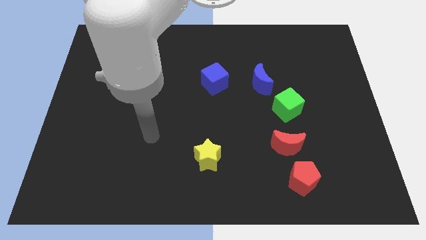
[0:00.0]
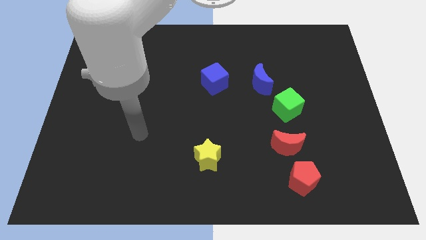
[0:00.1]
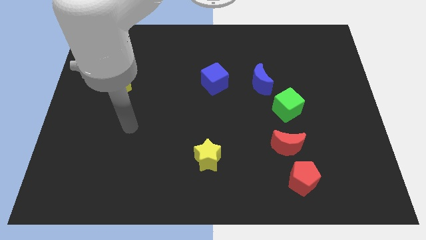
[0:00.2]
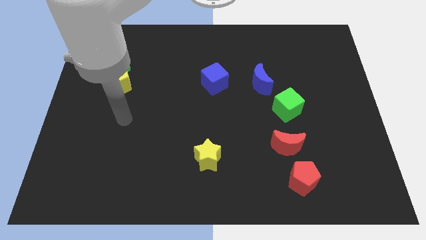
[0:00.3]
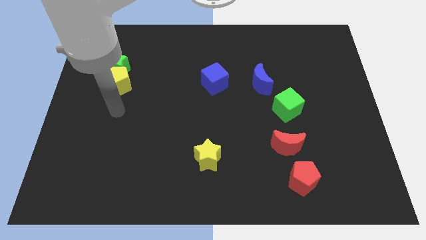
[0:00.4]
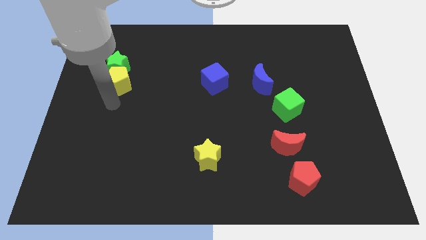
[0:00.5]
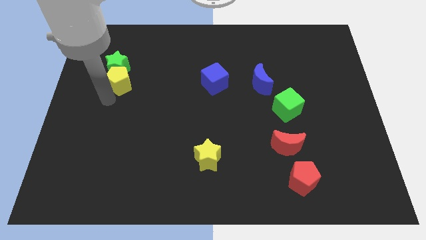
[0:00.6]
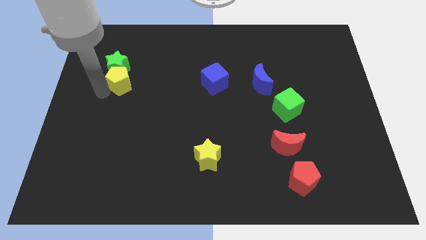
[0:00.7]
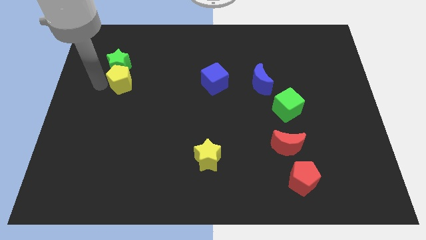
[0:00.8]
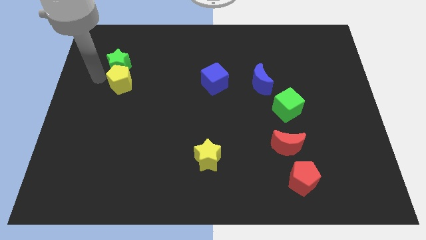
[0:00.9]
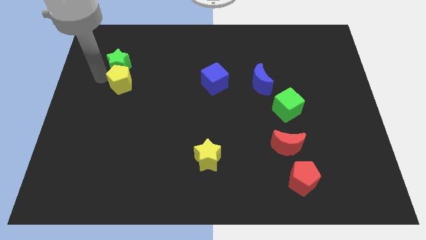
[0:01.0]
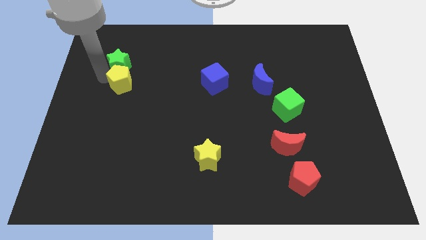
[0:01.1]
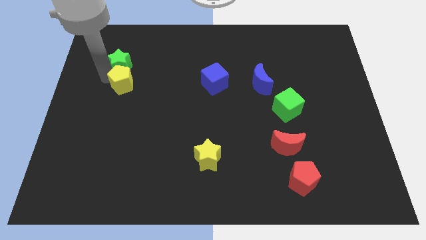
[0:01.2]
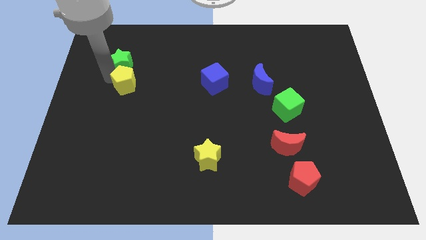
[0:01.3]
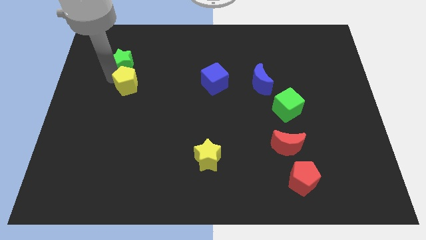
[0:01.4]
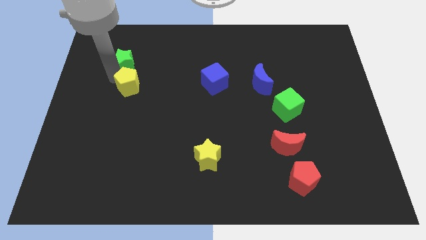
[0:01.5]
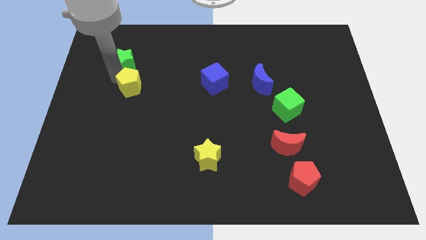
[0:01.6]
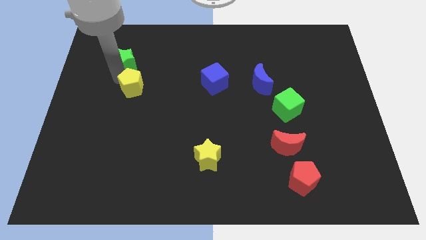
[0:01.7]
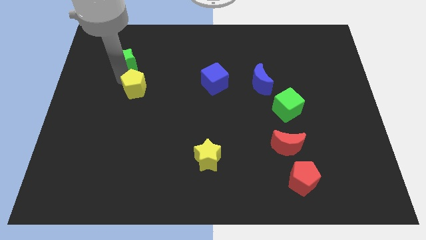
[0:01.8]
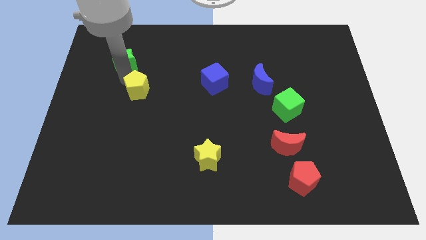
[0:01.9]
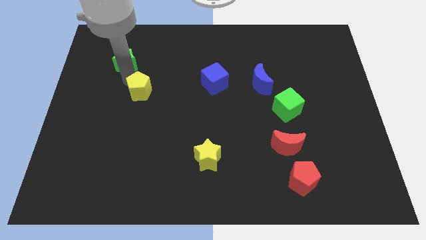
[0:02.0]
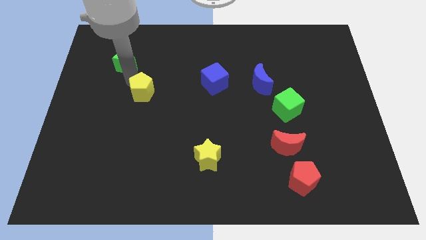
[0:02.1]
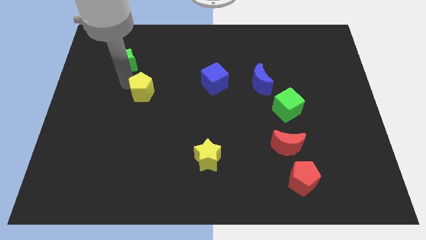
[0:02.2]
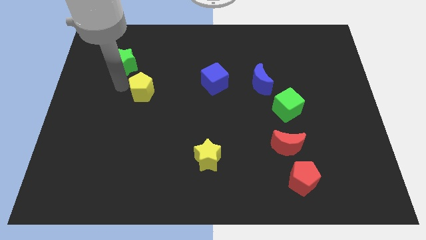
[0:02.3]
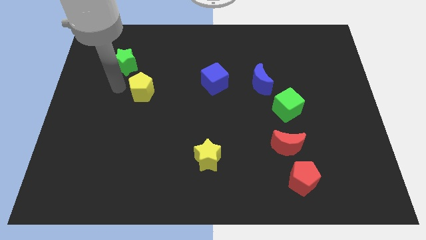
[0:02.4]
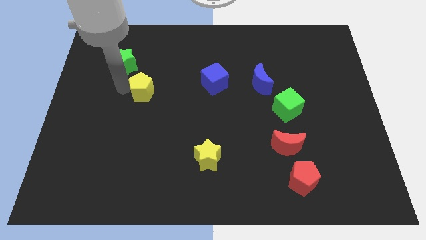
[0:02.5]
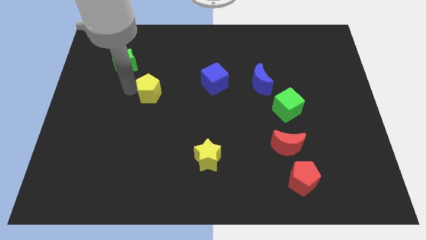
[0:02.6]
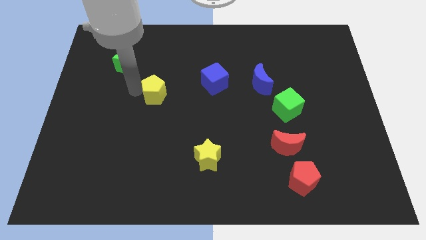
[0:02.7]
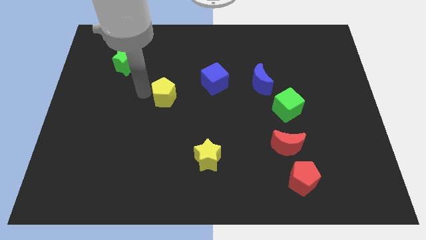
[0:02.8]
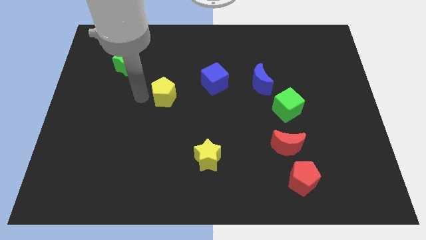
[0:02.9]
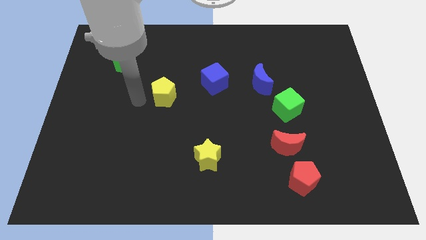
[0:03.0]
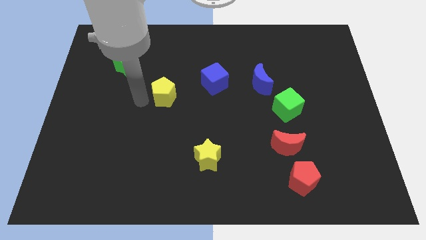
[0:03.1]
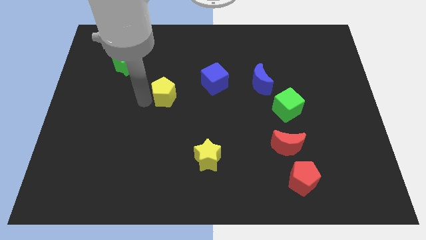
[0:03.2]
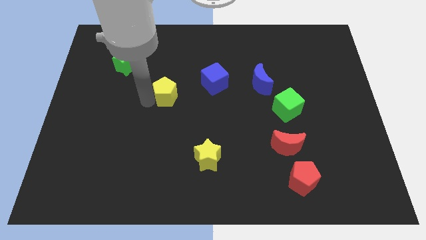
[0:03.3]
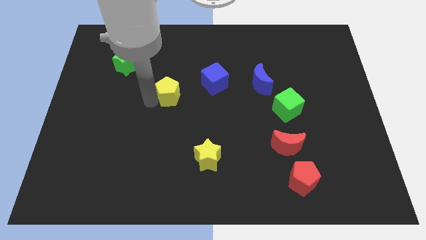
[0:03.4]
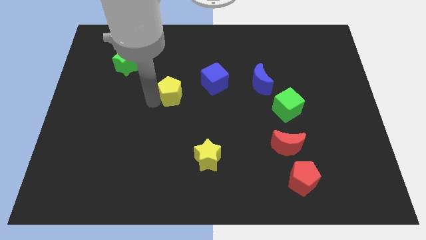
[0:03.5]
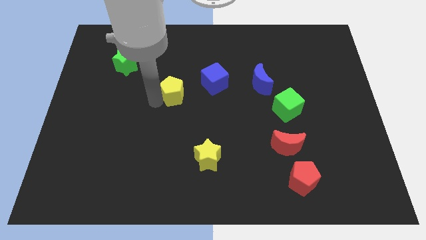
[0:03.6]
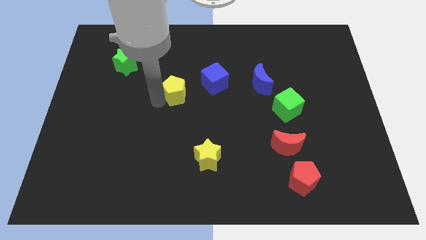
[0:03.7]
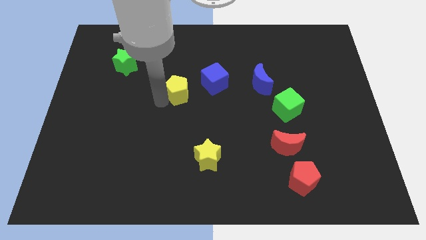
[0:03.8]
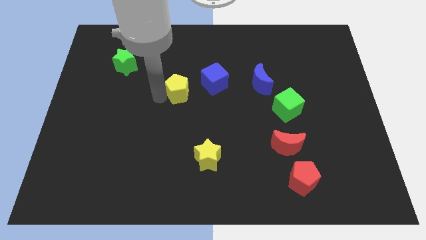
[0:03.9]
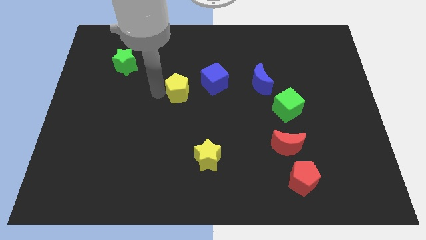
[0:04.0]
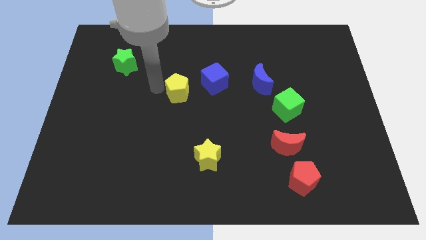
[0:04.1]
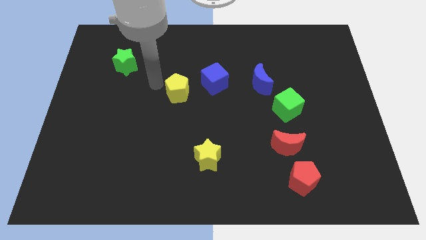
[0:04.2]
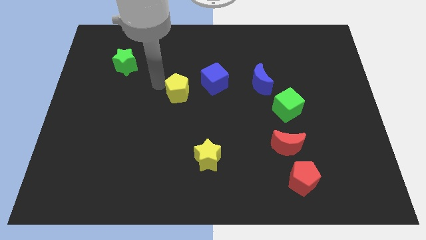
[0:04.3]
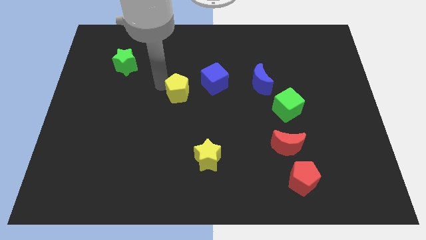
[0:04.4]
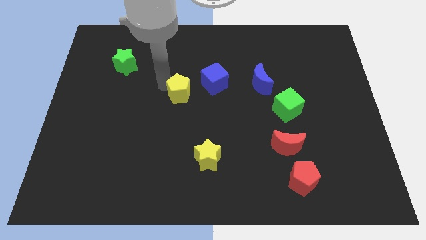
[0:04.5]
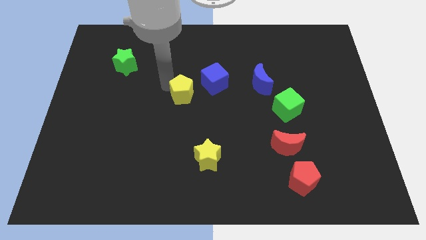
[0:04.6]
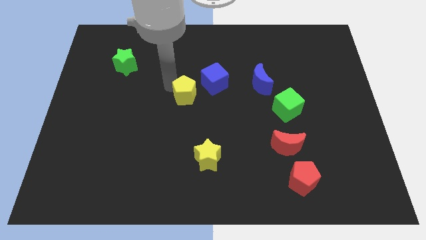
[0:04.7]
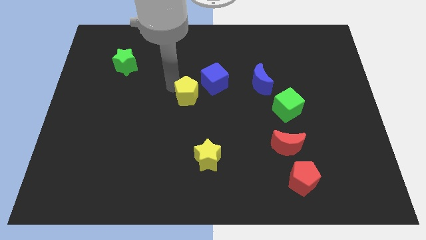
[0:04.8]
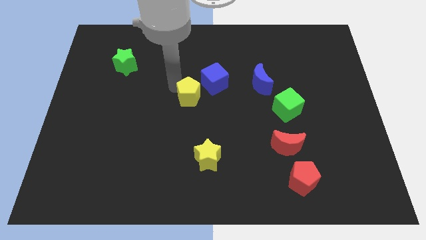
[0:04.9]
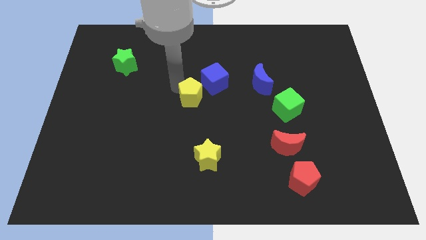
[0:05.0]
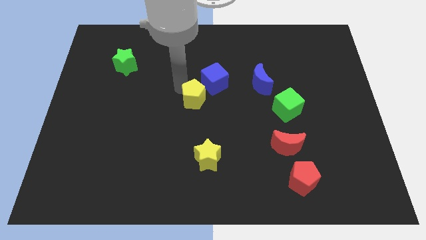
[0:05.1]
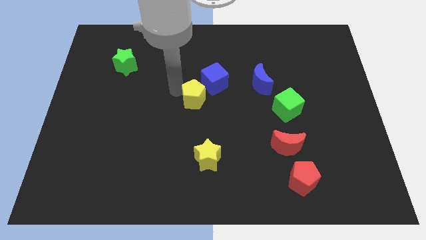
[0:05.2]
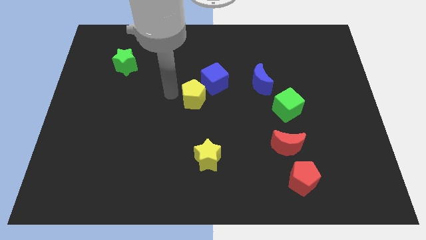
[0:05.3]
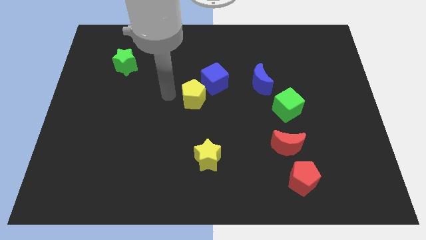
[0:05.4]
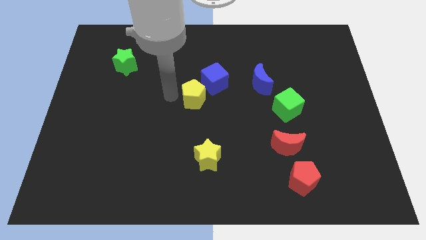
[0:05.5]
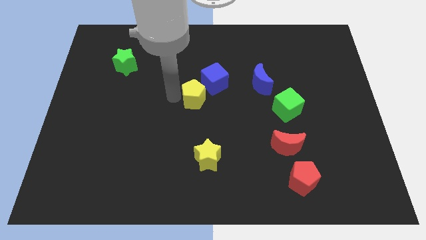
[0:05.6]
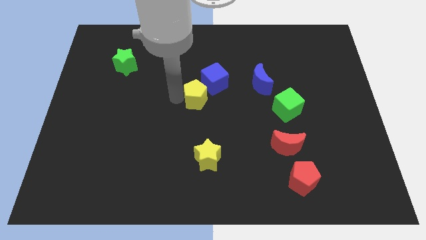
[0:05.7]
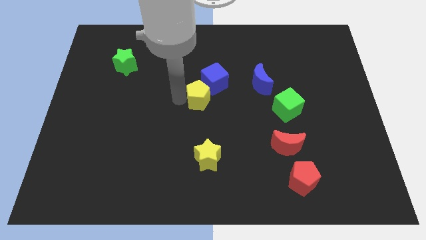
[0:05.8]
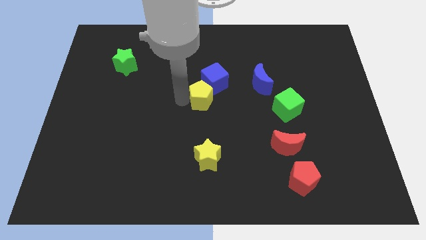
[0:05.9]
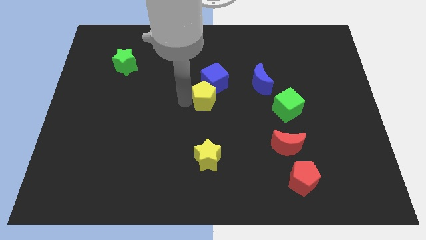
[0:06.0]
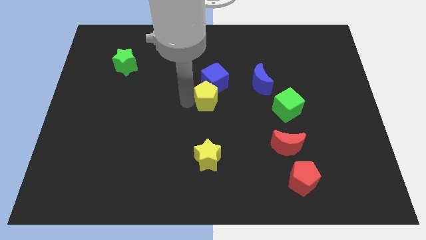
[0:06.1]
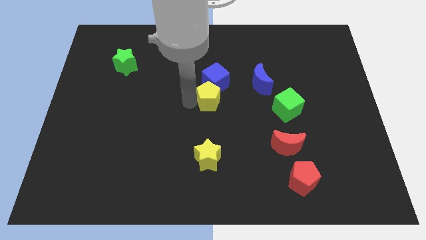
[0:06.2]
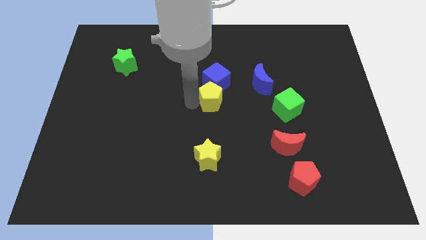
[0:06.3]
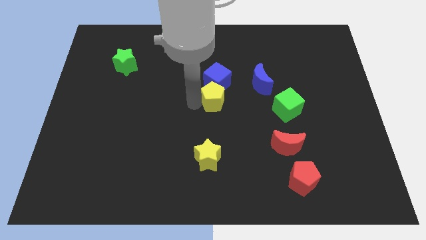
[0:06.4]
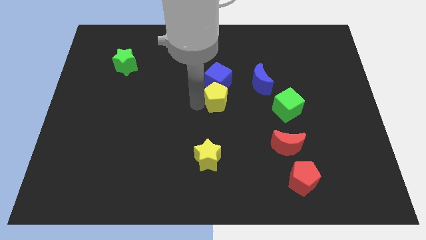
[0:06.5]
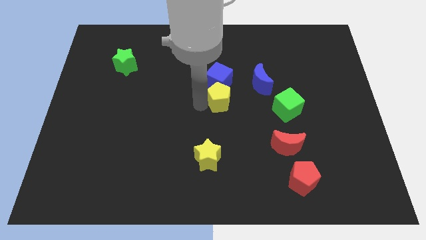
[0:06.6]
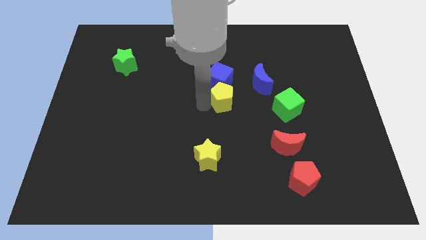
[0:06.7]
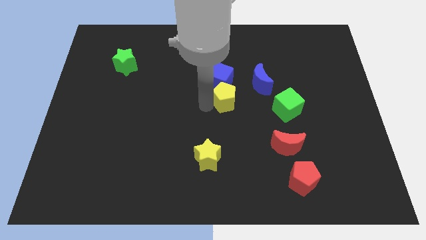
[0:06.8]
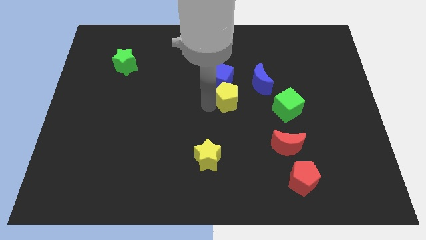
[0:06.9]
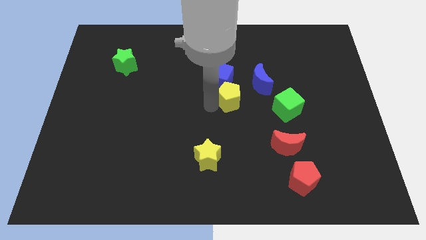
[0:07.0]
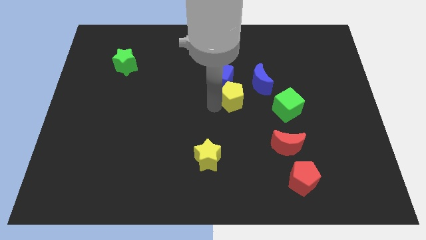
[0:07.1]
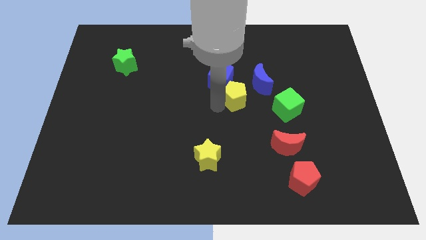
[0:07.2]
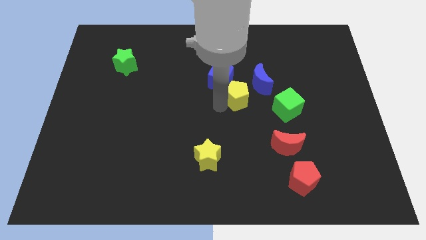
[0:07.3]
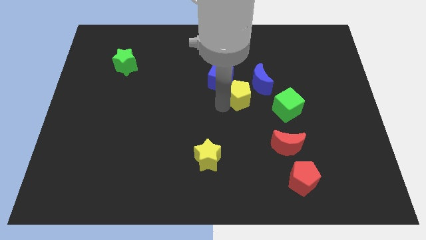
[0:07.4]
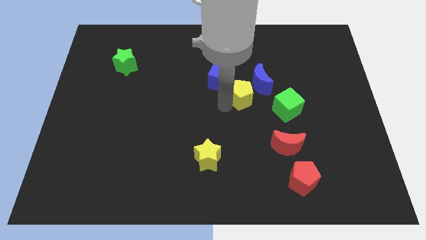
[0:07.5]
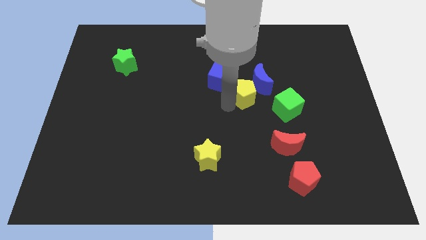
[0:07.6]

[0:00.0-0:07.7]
slide the yellow pentagon towards the blue moon
